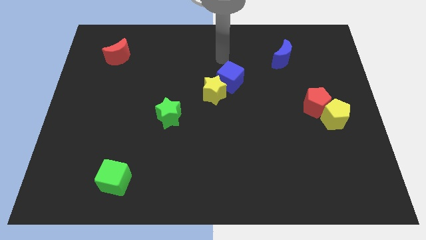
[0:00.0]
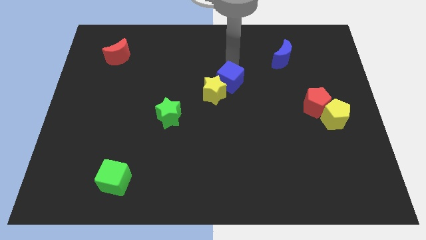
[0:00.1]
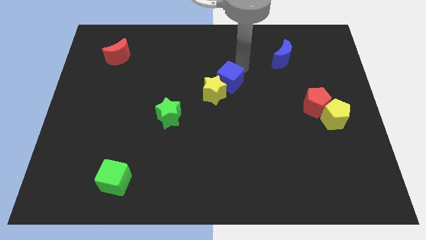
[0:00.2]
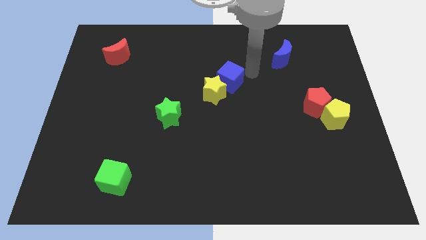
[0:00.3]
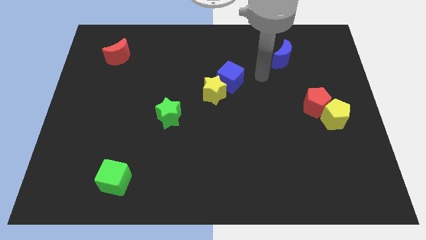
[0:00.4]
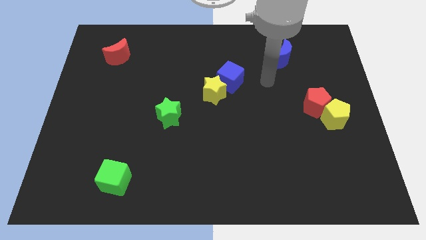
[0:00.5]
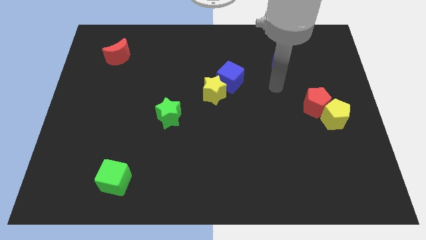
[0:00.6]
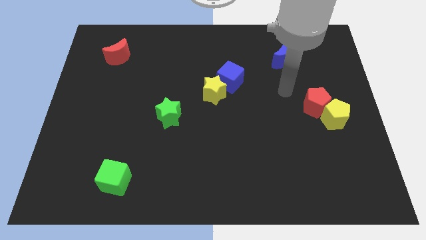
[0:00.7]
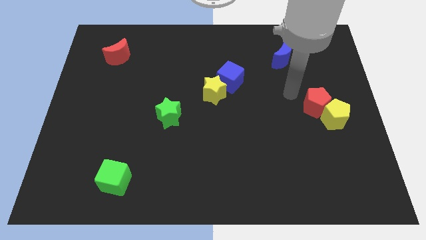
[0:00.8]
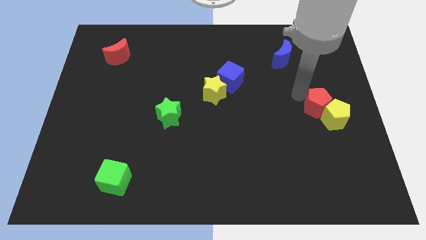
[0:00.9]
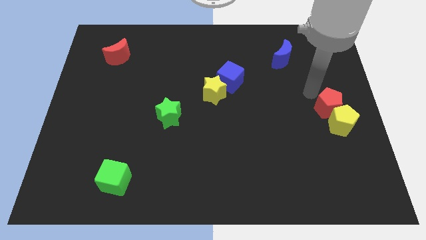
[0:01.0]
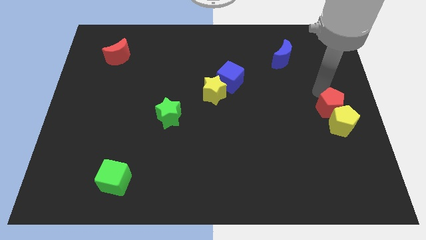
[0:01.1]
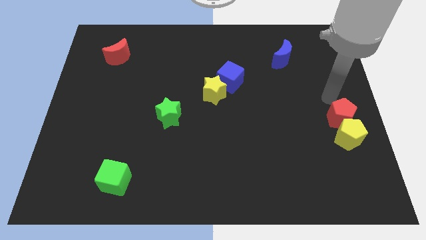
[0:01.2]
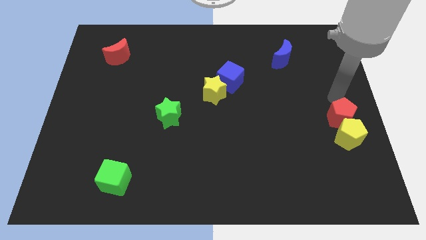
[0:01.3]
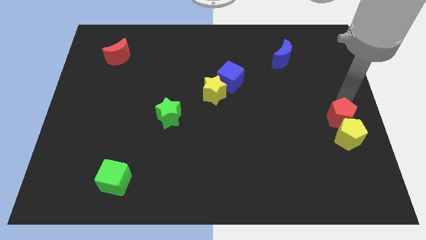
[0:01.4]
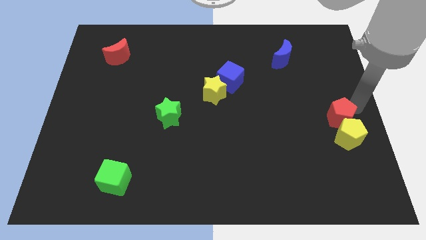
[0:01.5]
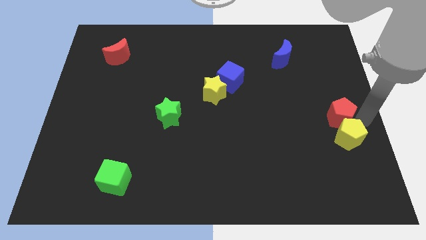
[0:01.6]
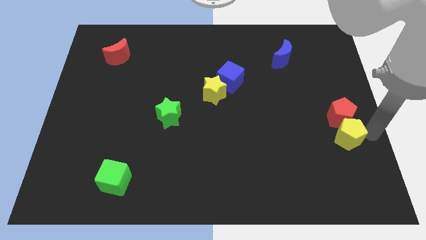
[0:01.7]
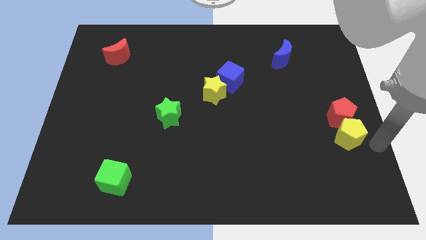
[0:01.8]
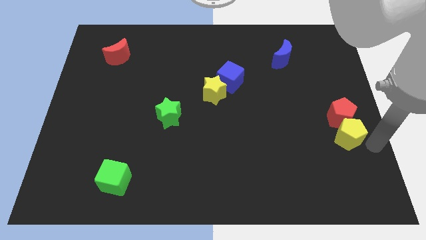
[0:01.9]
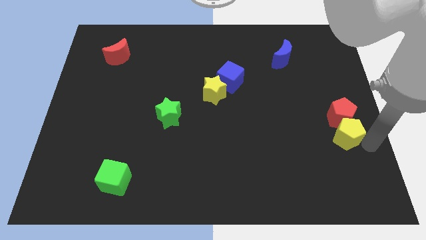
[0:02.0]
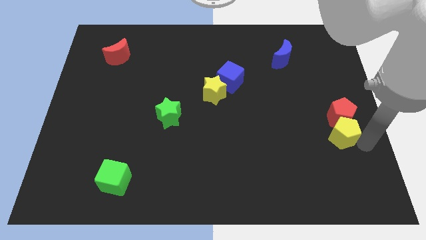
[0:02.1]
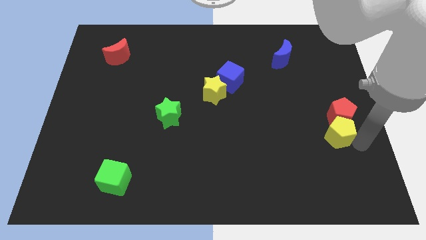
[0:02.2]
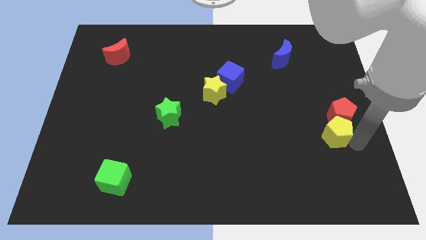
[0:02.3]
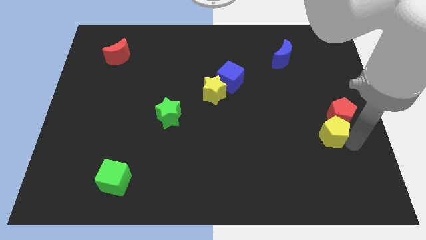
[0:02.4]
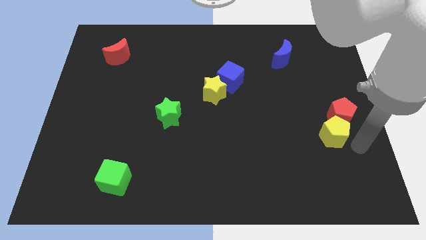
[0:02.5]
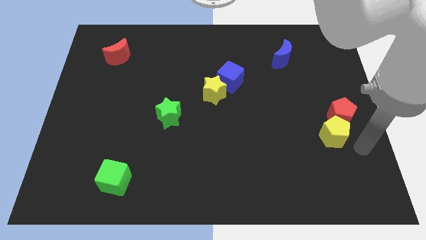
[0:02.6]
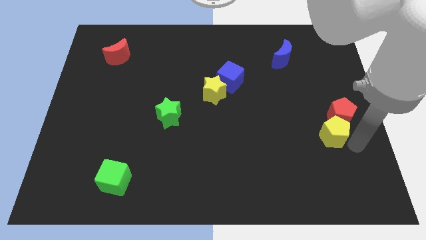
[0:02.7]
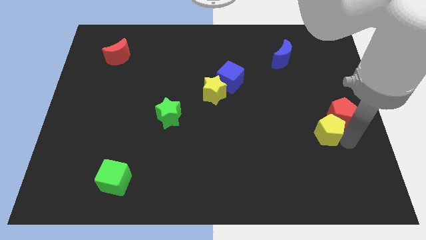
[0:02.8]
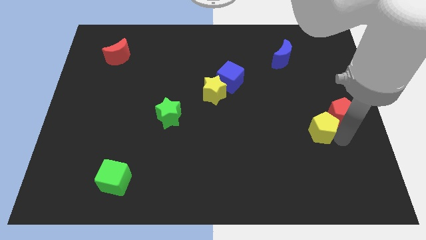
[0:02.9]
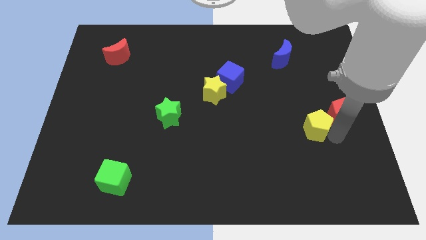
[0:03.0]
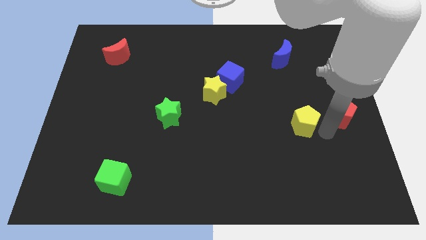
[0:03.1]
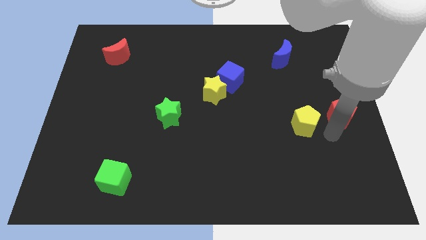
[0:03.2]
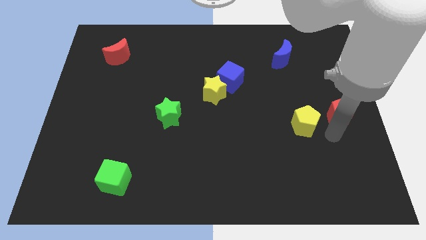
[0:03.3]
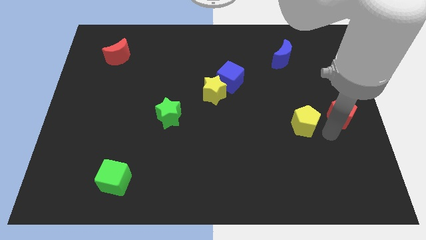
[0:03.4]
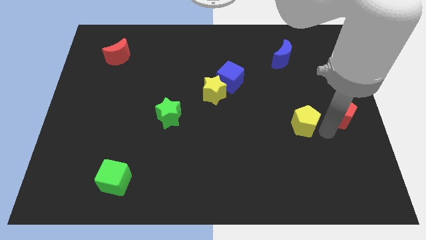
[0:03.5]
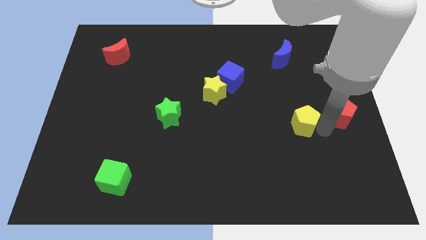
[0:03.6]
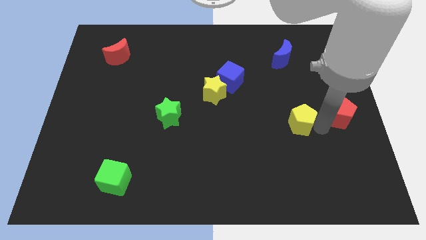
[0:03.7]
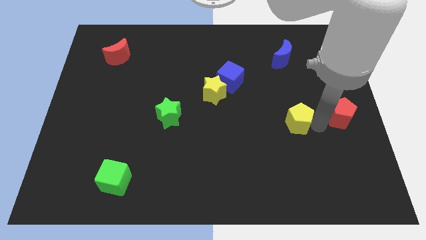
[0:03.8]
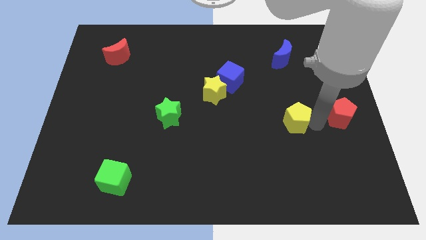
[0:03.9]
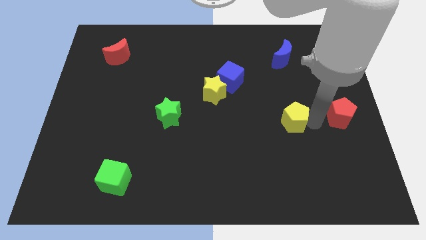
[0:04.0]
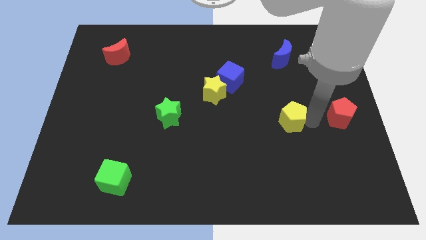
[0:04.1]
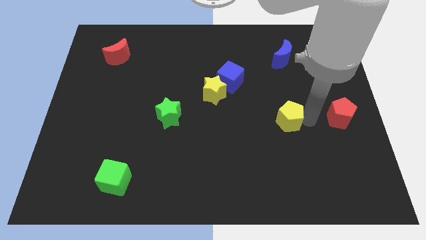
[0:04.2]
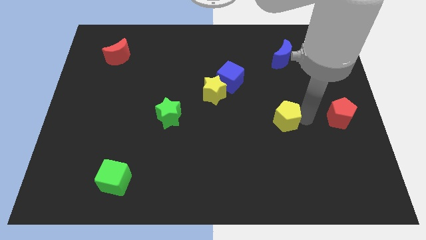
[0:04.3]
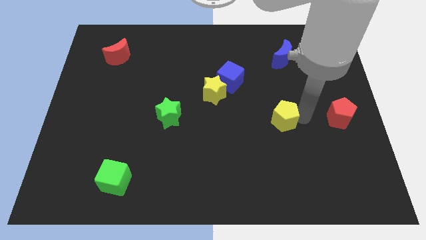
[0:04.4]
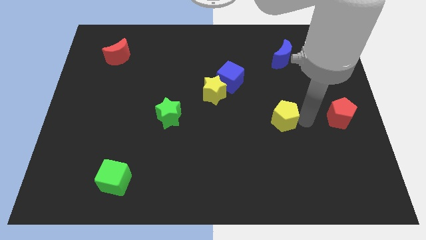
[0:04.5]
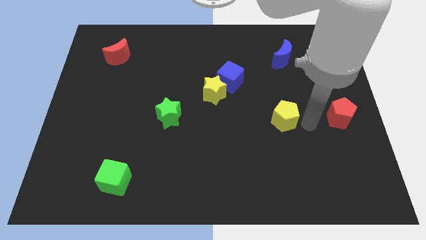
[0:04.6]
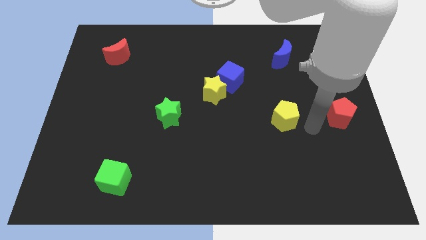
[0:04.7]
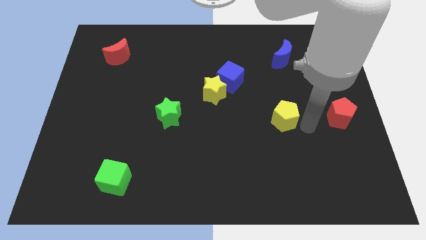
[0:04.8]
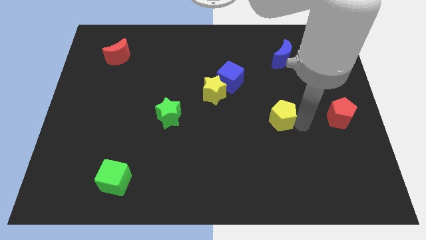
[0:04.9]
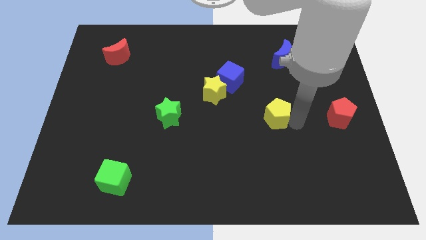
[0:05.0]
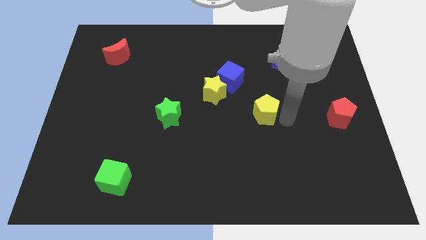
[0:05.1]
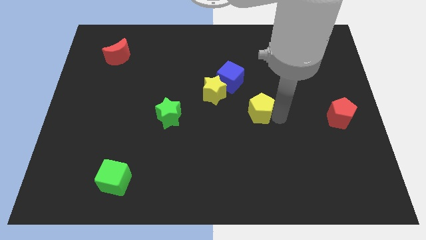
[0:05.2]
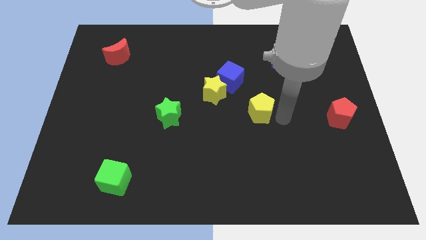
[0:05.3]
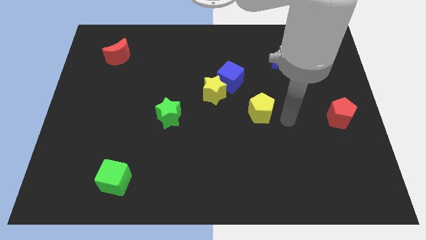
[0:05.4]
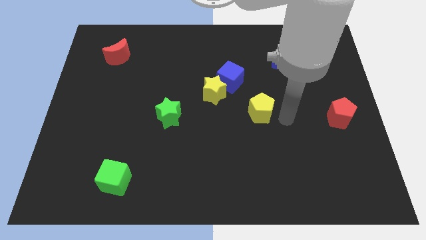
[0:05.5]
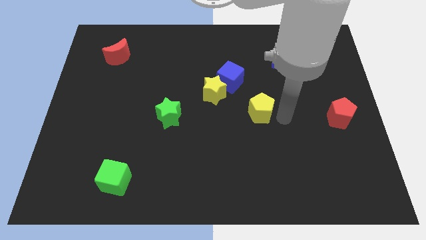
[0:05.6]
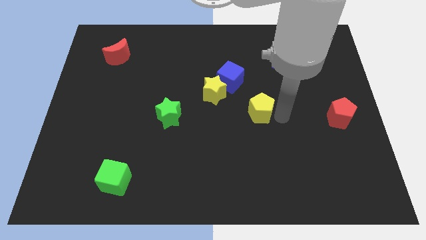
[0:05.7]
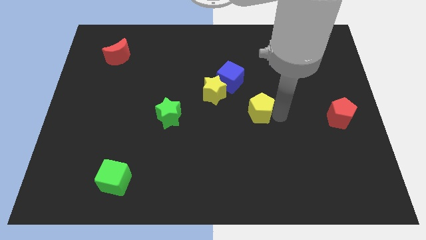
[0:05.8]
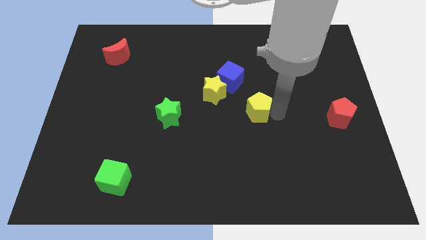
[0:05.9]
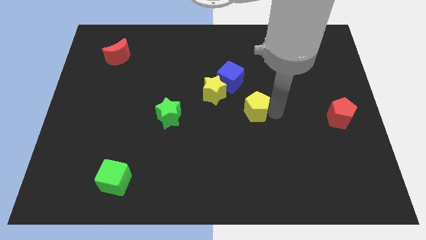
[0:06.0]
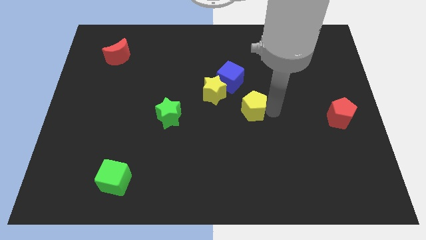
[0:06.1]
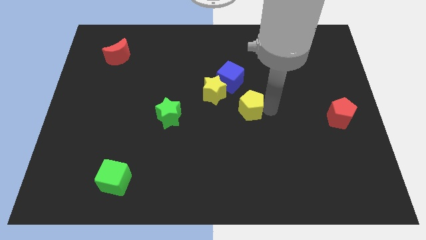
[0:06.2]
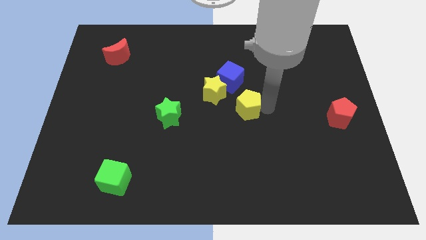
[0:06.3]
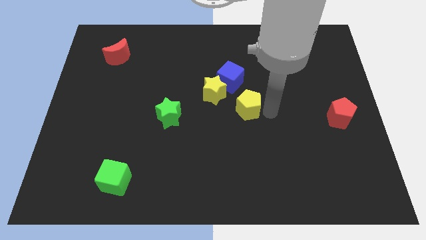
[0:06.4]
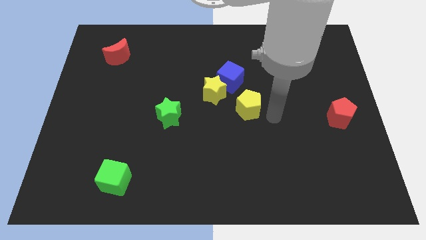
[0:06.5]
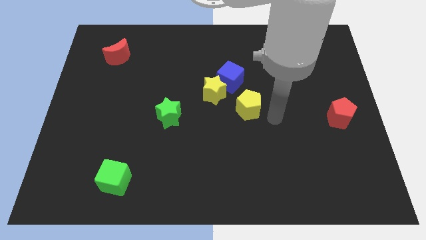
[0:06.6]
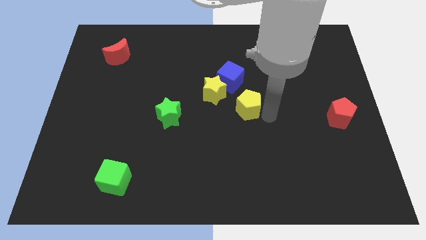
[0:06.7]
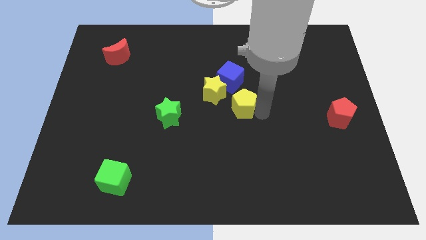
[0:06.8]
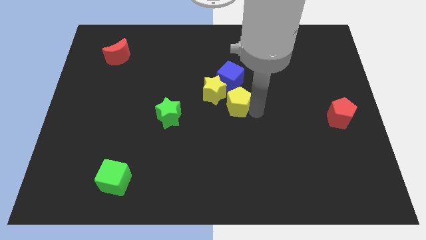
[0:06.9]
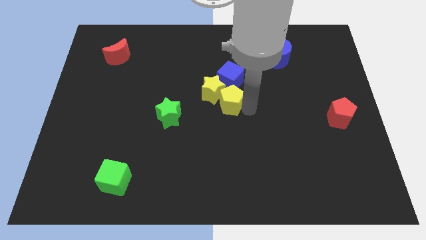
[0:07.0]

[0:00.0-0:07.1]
slide the yellow pentagon close to the yellow star
